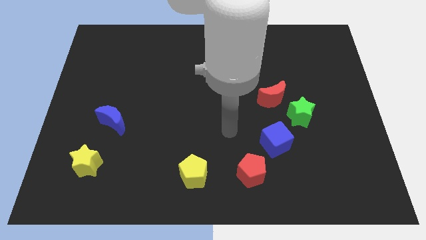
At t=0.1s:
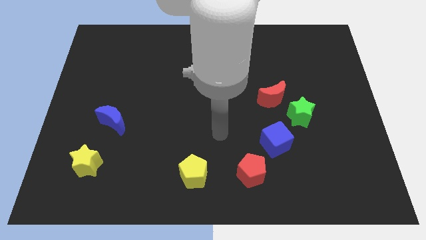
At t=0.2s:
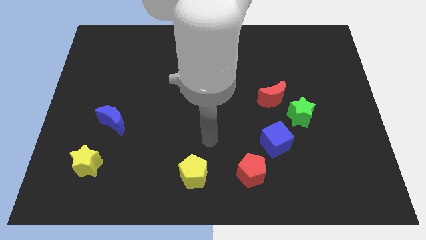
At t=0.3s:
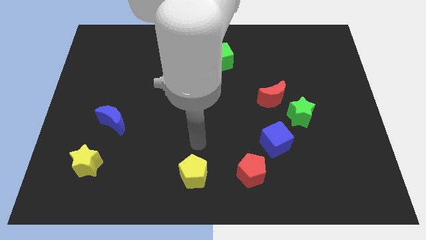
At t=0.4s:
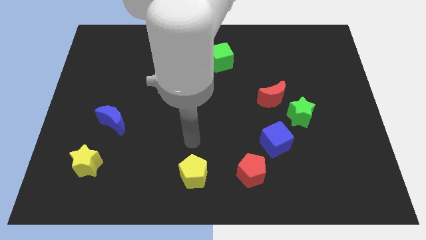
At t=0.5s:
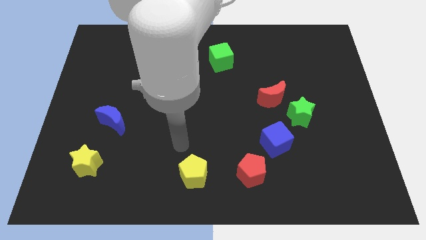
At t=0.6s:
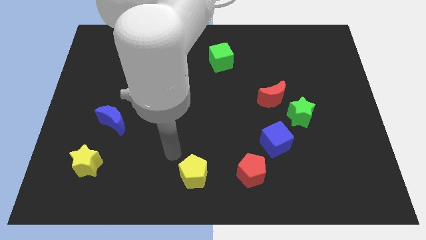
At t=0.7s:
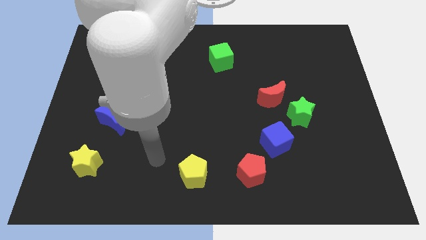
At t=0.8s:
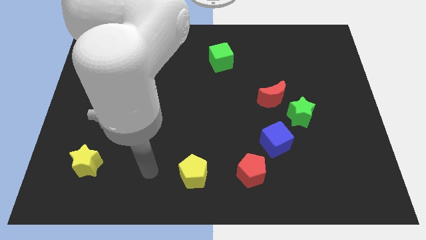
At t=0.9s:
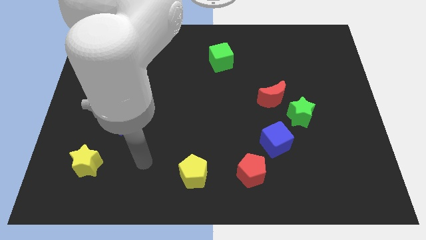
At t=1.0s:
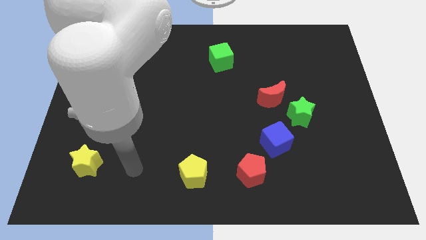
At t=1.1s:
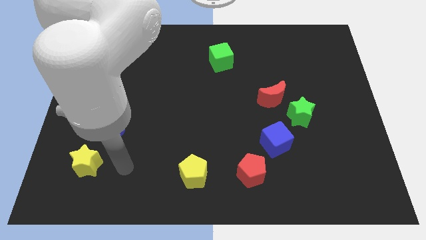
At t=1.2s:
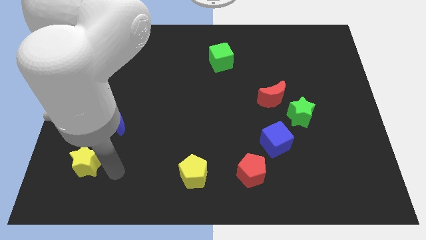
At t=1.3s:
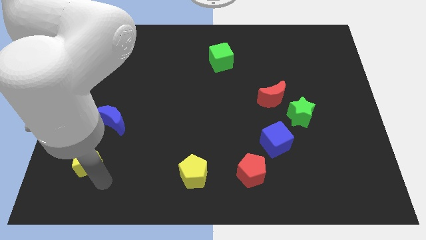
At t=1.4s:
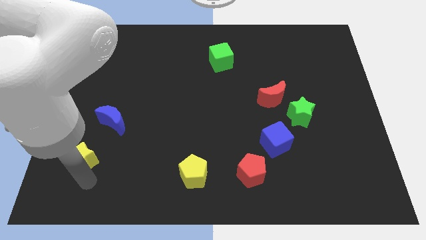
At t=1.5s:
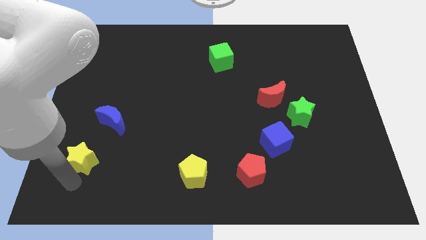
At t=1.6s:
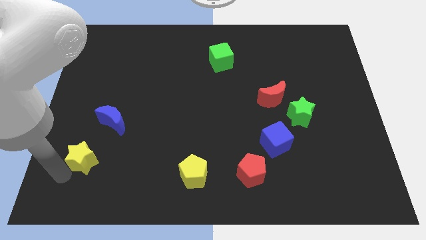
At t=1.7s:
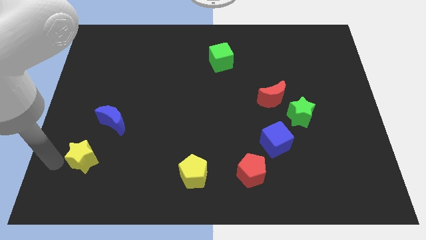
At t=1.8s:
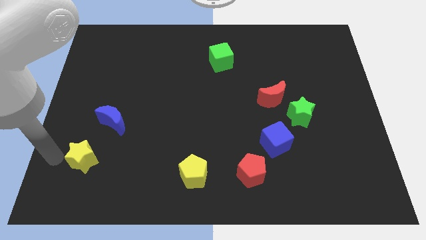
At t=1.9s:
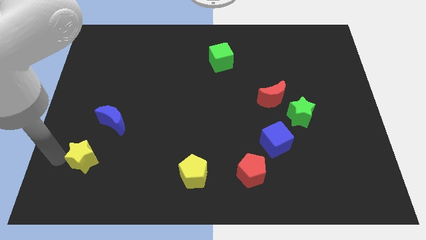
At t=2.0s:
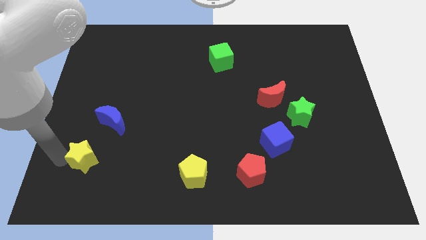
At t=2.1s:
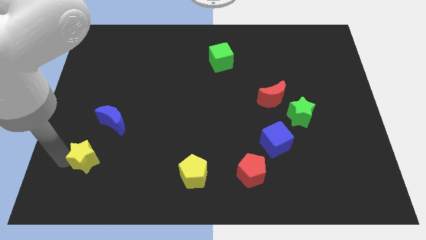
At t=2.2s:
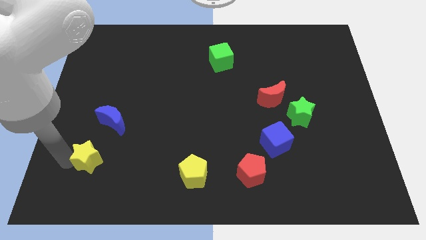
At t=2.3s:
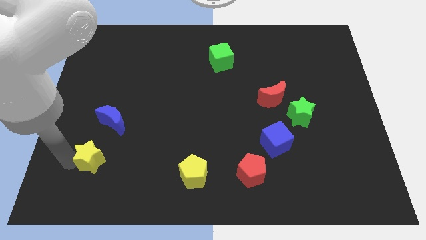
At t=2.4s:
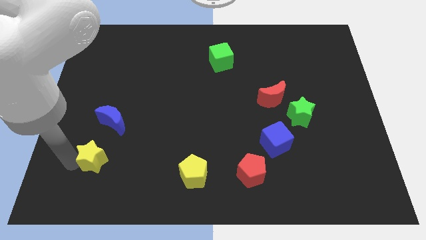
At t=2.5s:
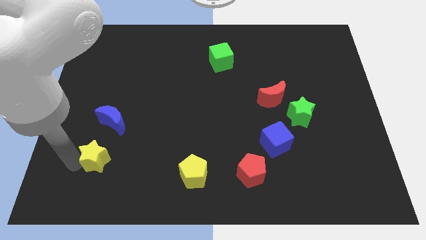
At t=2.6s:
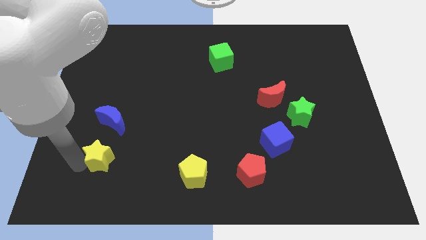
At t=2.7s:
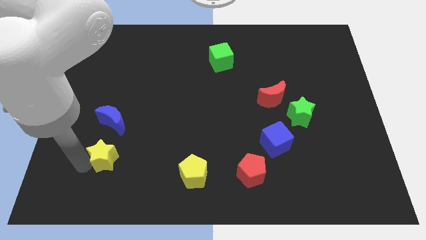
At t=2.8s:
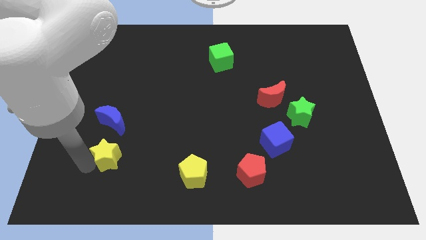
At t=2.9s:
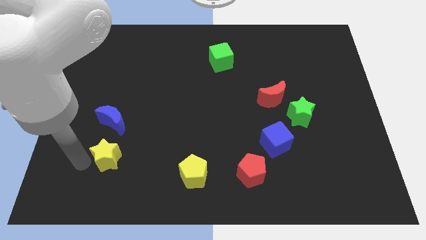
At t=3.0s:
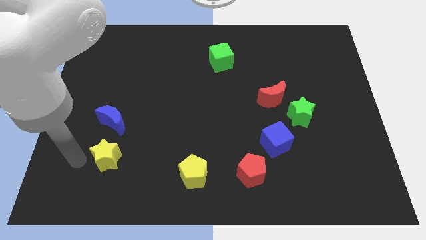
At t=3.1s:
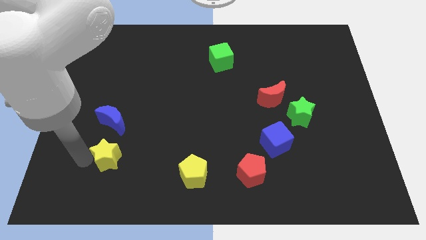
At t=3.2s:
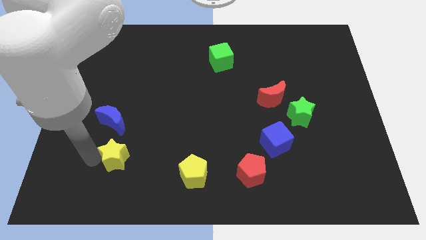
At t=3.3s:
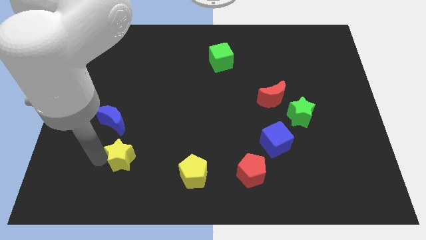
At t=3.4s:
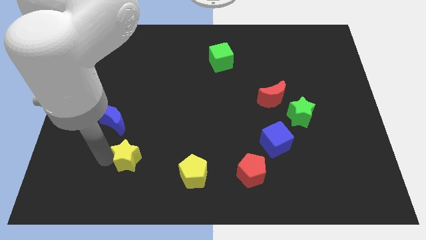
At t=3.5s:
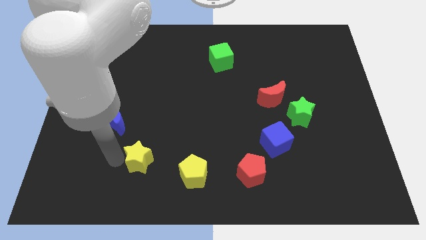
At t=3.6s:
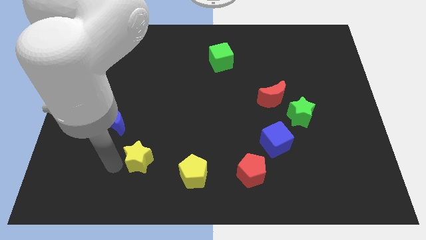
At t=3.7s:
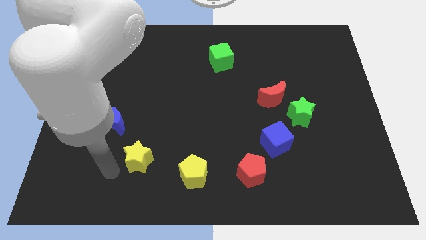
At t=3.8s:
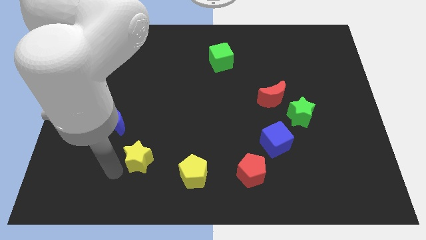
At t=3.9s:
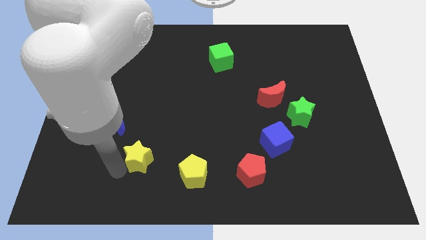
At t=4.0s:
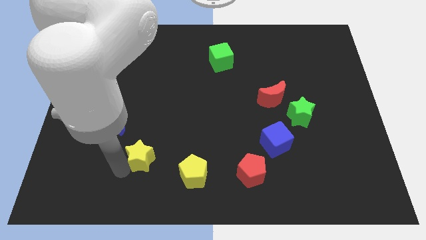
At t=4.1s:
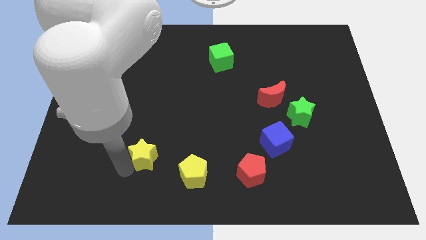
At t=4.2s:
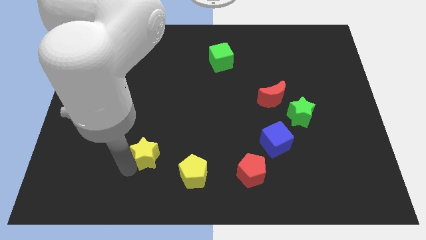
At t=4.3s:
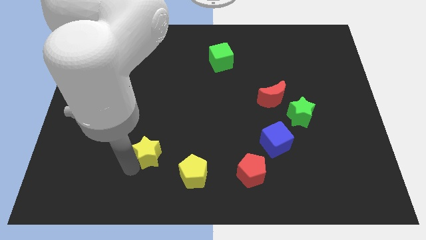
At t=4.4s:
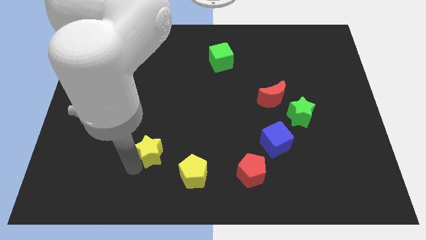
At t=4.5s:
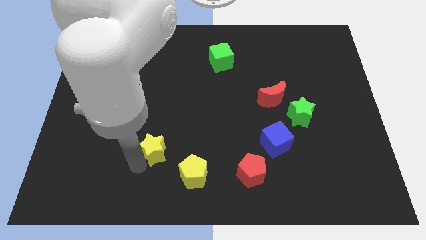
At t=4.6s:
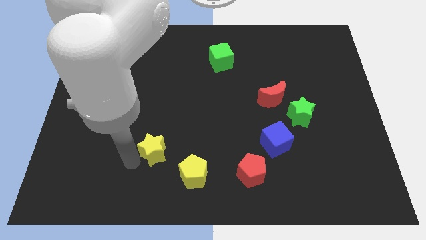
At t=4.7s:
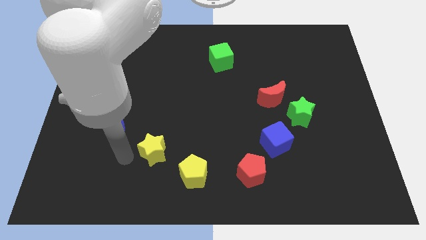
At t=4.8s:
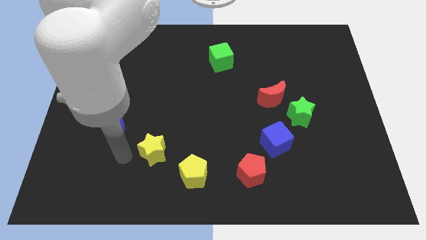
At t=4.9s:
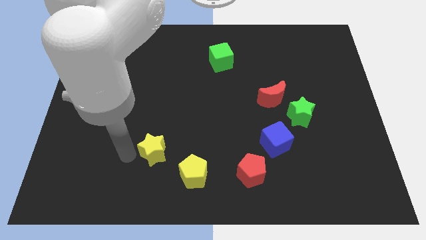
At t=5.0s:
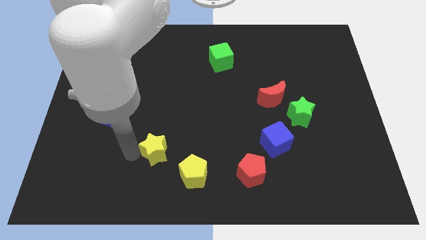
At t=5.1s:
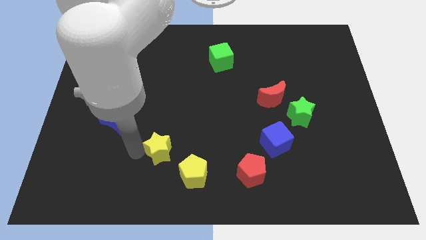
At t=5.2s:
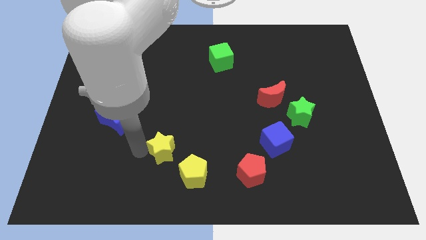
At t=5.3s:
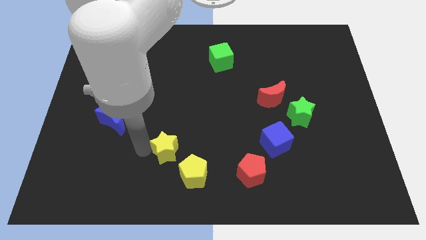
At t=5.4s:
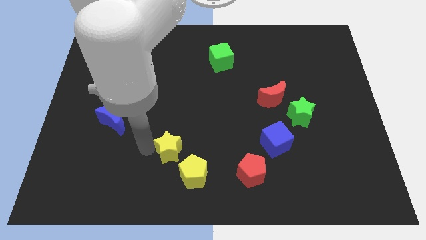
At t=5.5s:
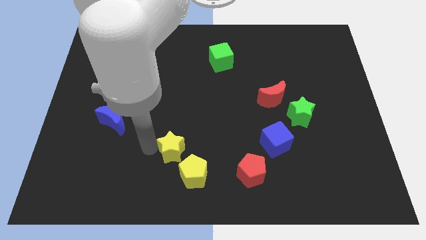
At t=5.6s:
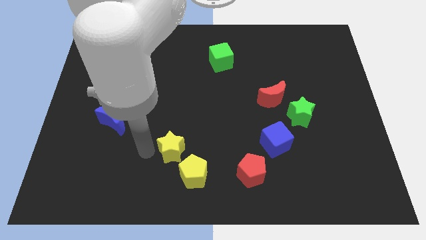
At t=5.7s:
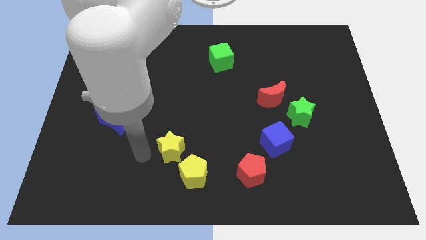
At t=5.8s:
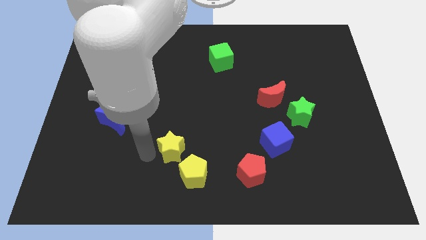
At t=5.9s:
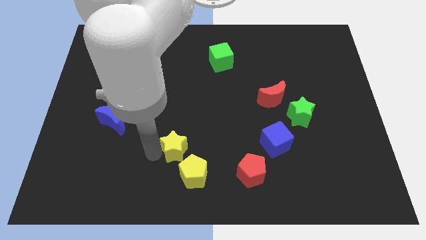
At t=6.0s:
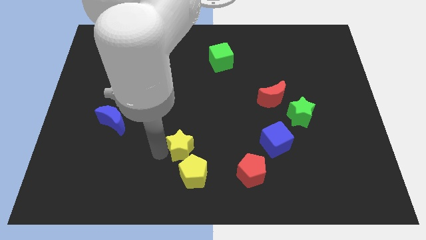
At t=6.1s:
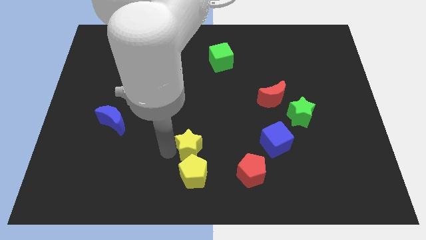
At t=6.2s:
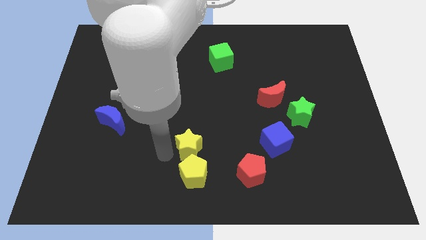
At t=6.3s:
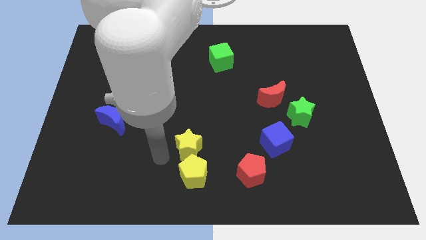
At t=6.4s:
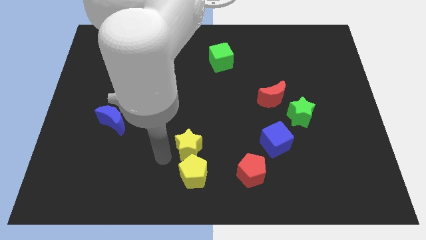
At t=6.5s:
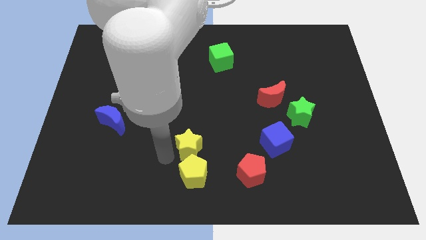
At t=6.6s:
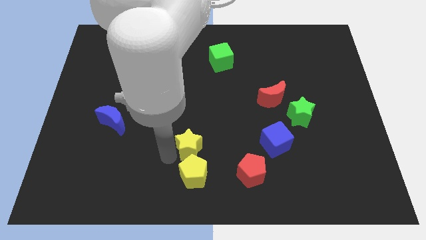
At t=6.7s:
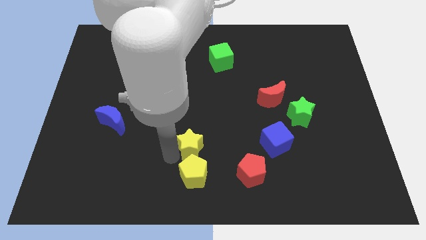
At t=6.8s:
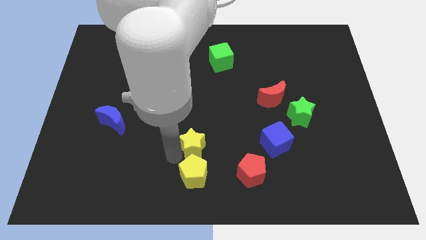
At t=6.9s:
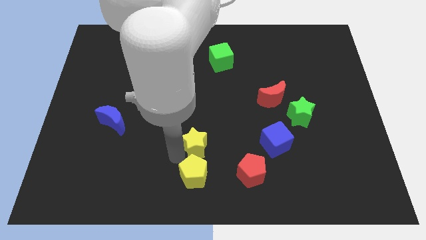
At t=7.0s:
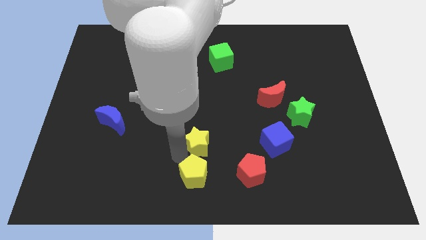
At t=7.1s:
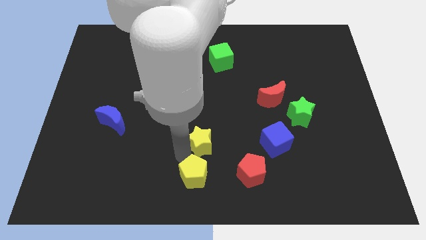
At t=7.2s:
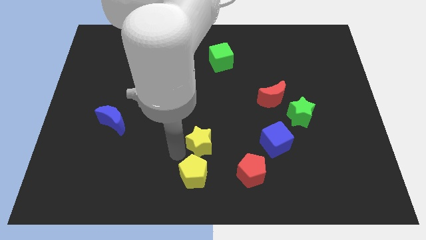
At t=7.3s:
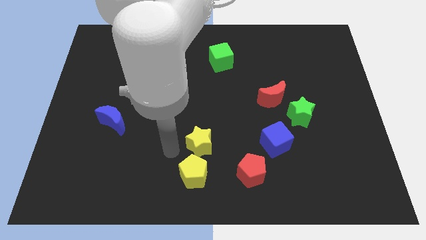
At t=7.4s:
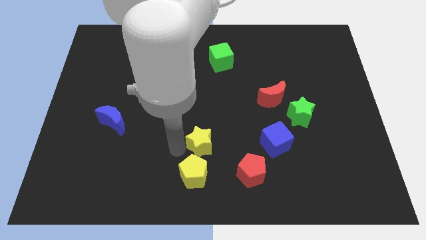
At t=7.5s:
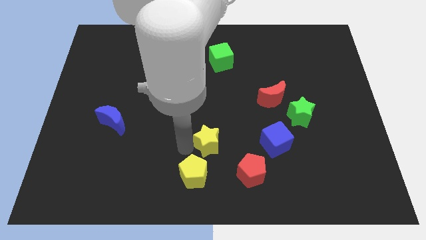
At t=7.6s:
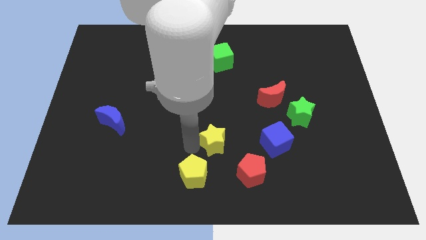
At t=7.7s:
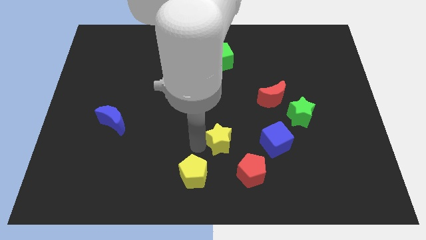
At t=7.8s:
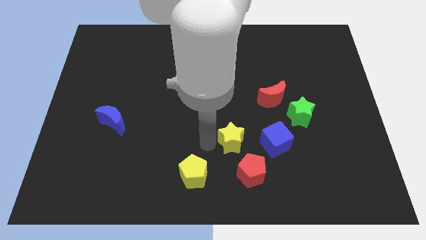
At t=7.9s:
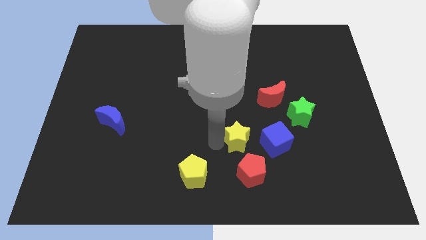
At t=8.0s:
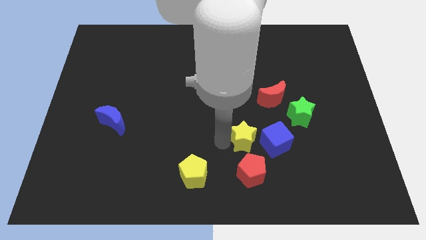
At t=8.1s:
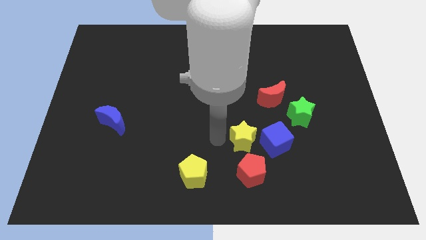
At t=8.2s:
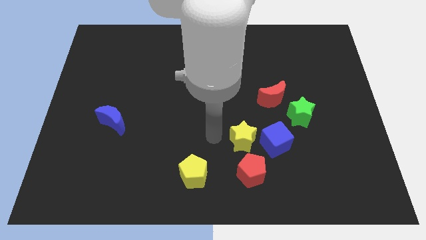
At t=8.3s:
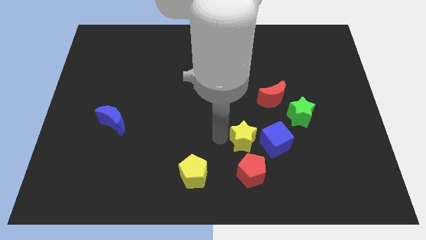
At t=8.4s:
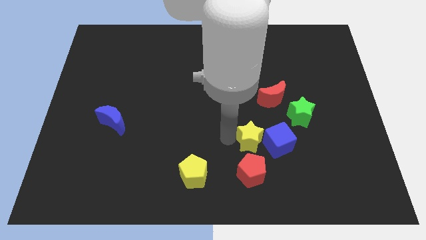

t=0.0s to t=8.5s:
push the yellow star next to the blue cube

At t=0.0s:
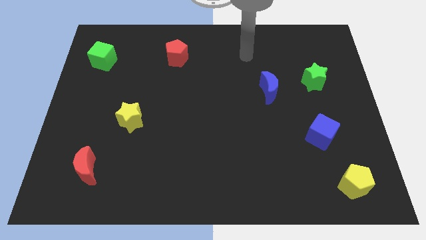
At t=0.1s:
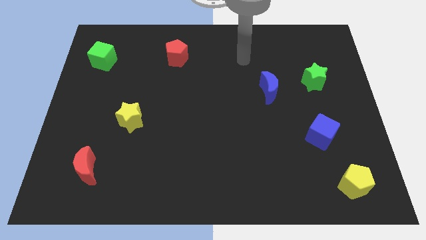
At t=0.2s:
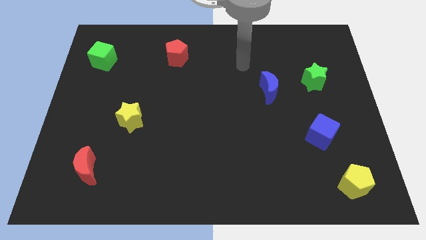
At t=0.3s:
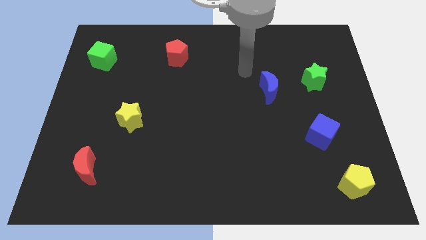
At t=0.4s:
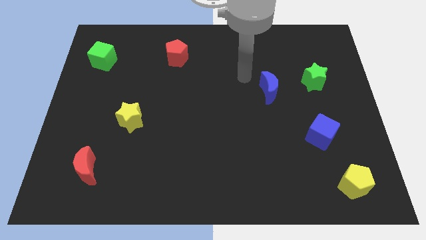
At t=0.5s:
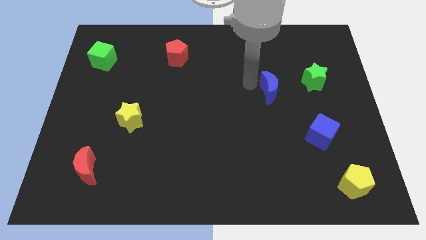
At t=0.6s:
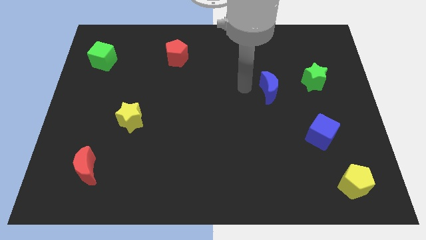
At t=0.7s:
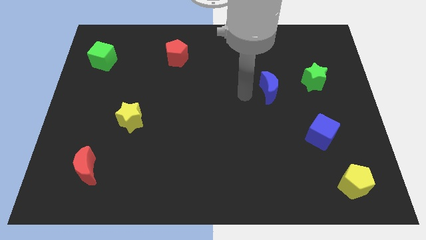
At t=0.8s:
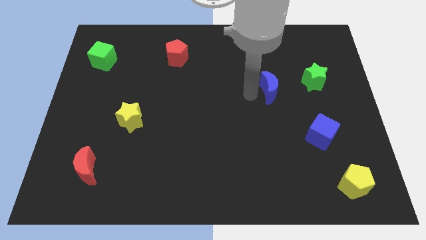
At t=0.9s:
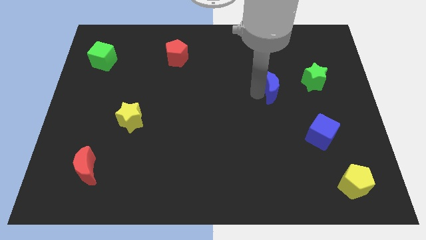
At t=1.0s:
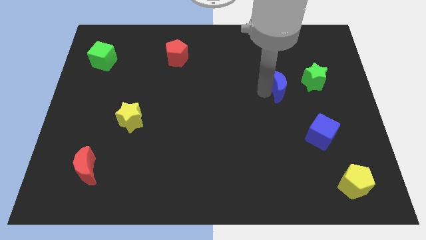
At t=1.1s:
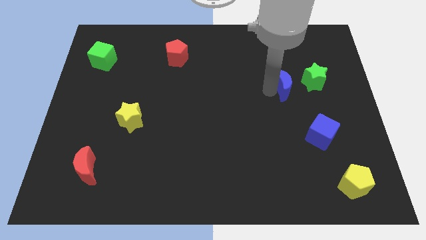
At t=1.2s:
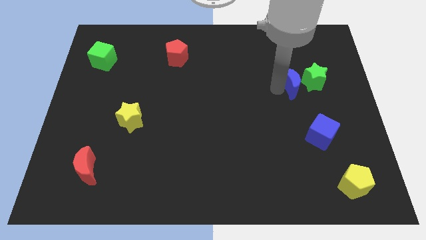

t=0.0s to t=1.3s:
move the blue moon next to the green star
